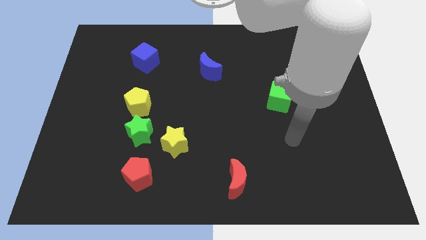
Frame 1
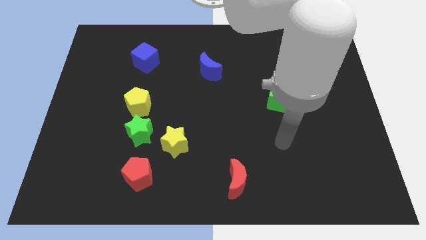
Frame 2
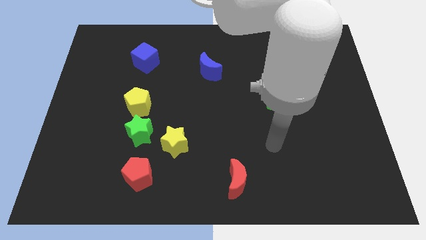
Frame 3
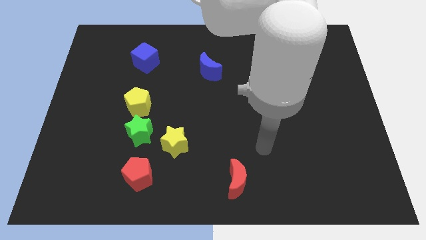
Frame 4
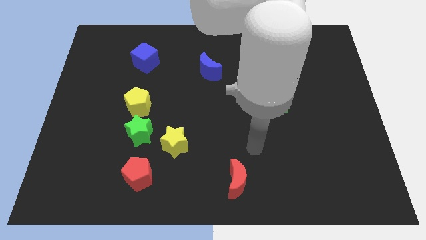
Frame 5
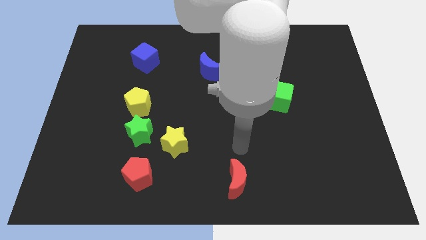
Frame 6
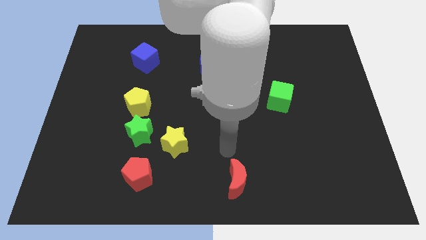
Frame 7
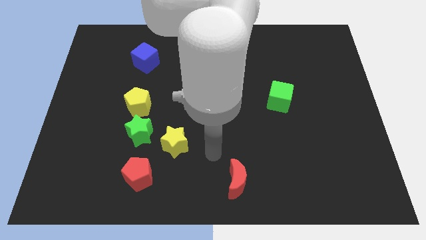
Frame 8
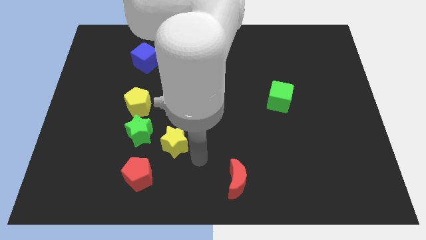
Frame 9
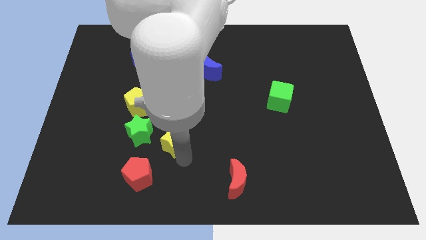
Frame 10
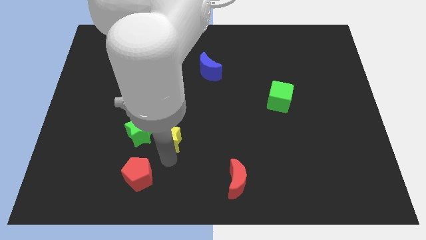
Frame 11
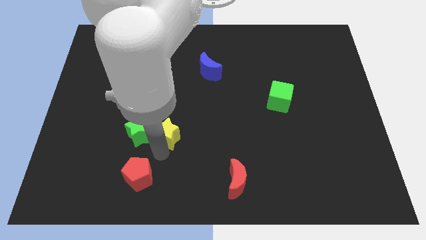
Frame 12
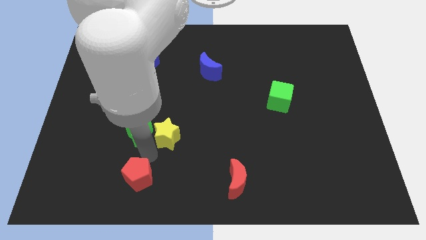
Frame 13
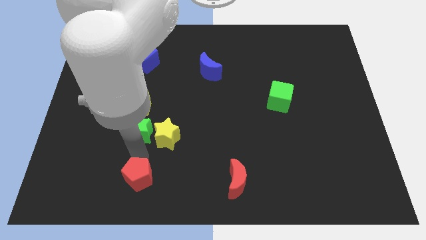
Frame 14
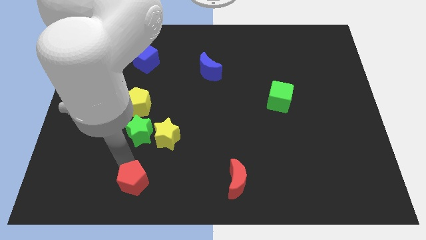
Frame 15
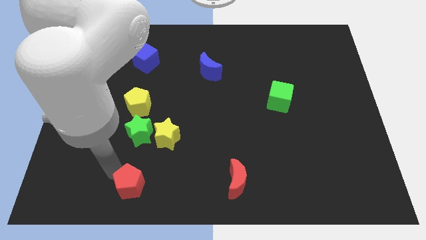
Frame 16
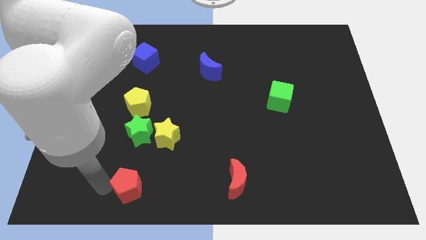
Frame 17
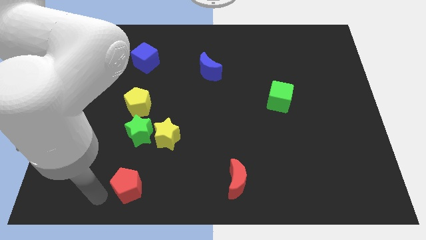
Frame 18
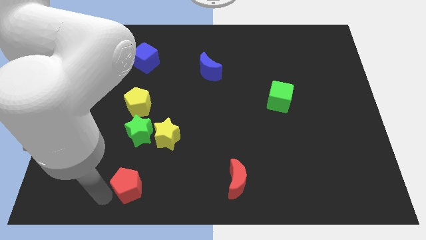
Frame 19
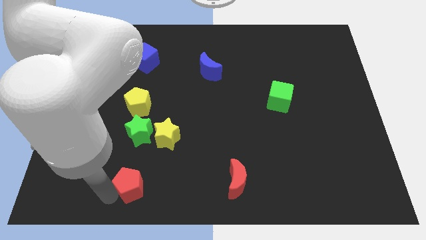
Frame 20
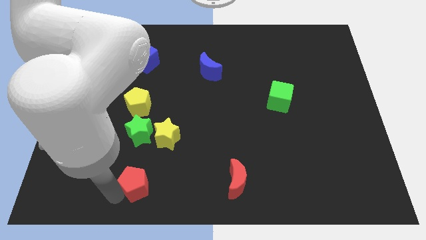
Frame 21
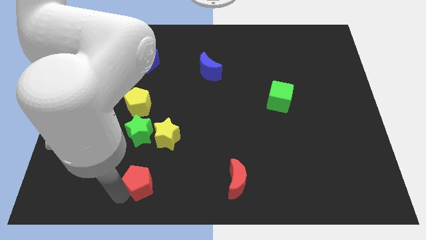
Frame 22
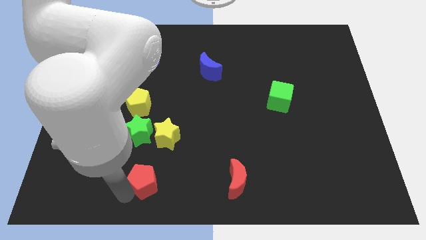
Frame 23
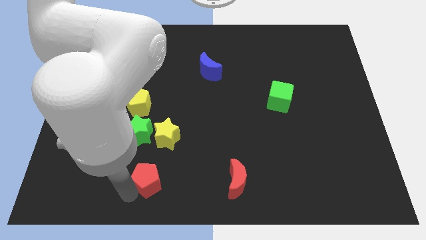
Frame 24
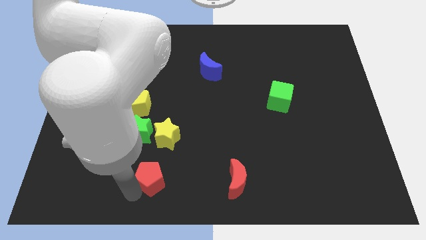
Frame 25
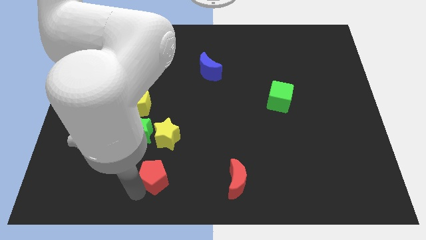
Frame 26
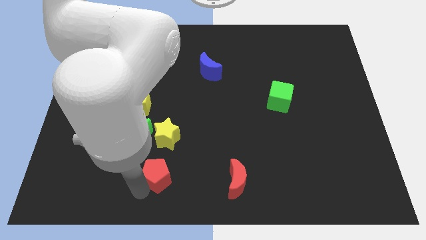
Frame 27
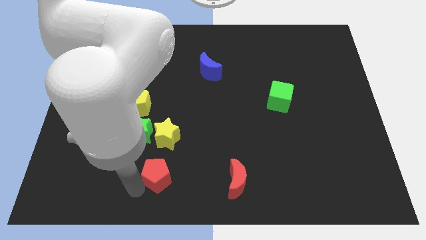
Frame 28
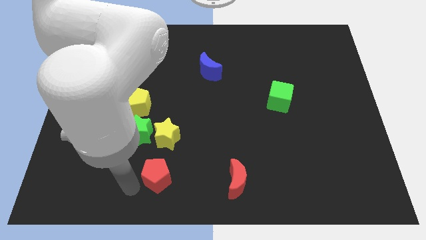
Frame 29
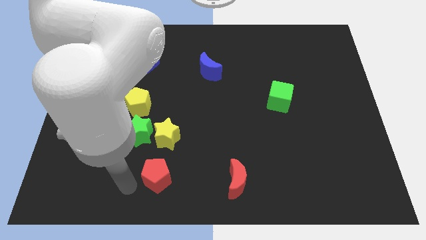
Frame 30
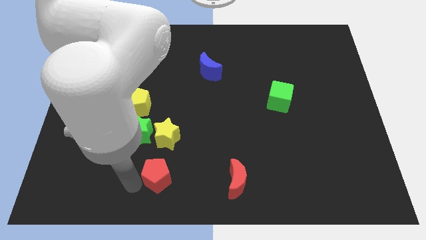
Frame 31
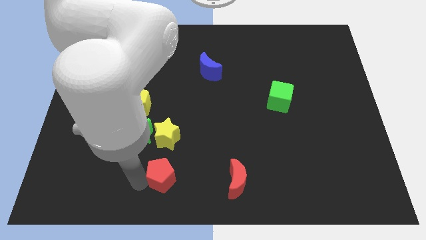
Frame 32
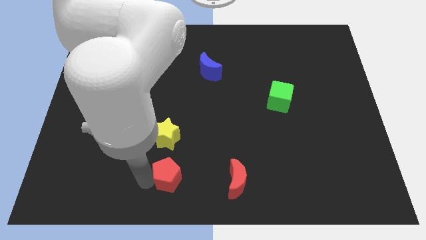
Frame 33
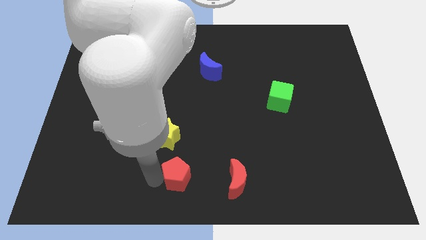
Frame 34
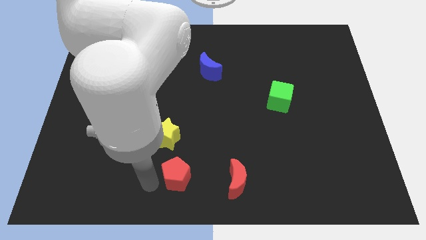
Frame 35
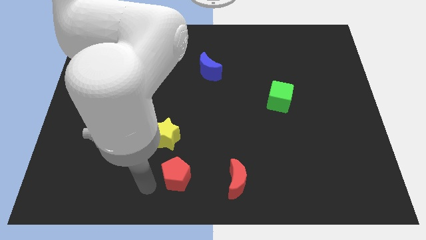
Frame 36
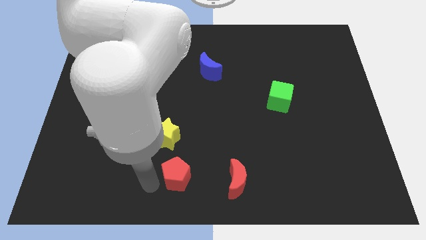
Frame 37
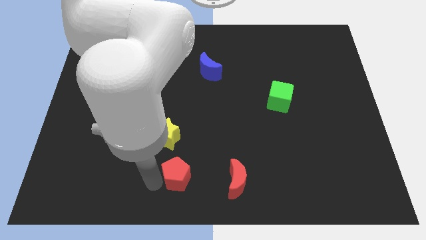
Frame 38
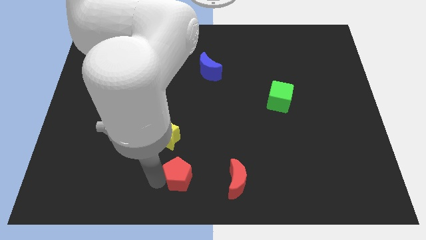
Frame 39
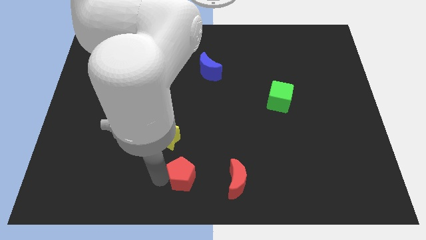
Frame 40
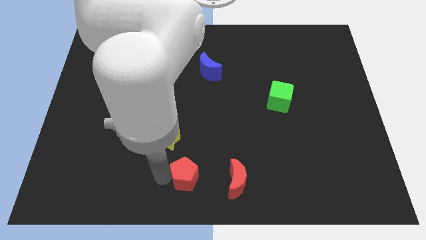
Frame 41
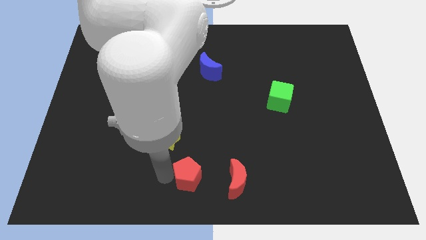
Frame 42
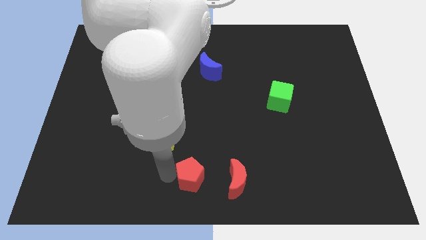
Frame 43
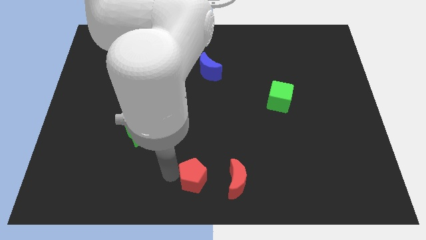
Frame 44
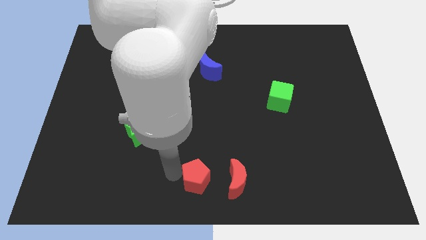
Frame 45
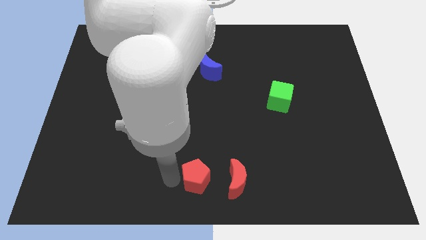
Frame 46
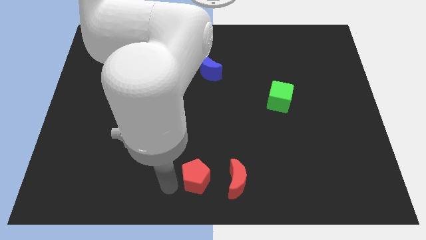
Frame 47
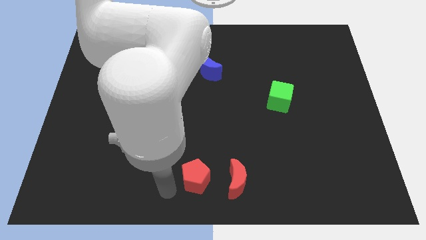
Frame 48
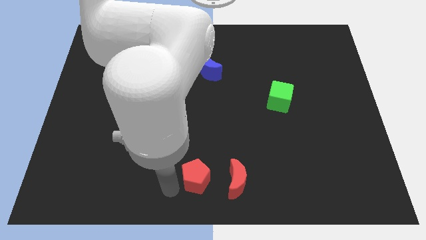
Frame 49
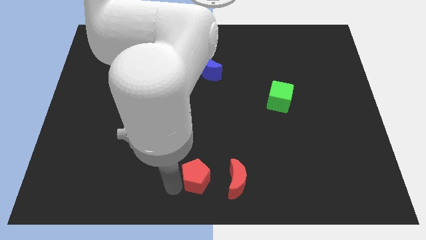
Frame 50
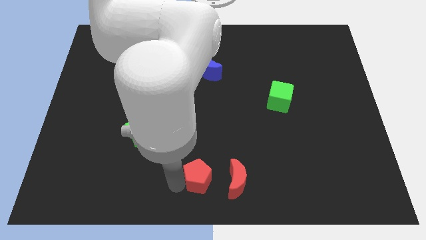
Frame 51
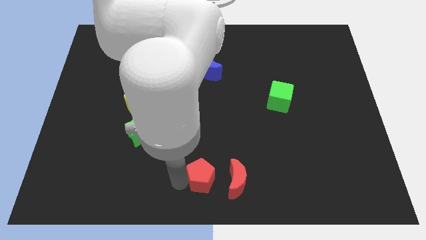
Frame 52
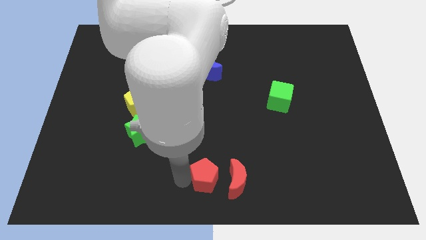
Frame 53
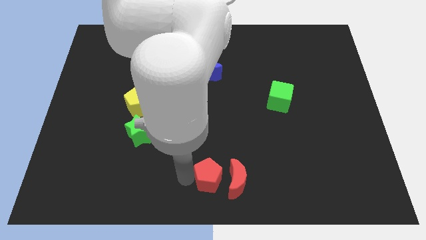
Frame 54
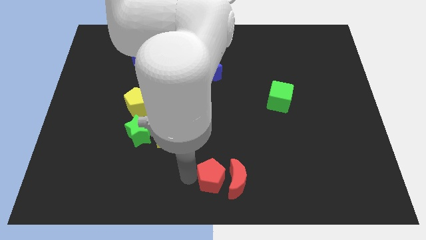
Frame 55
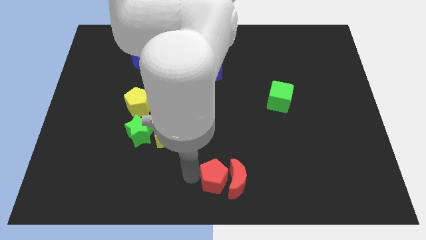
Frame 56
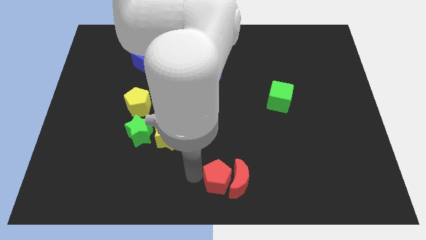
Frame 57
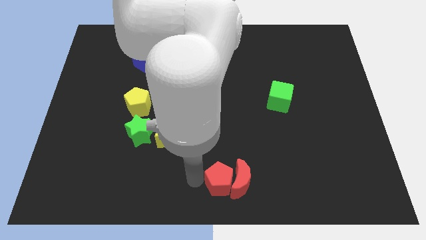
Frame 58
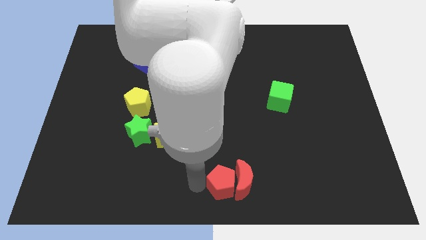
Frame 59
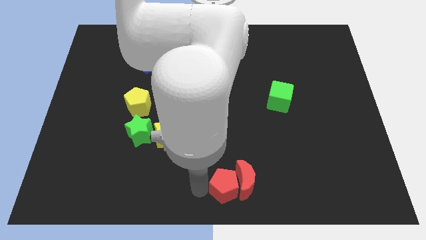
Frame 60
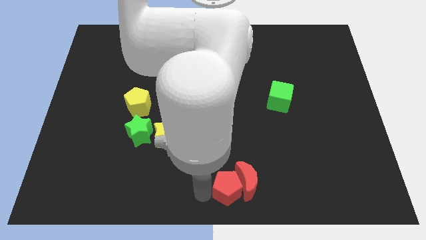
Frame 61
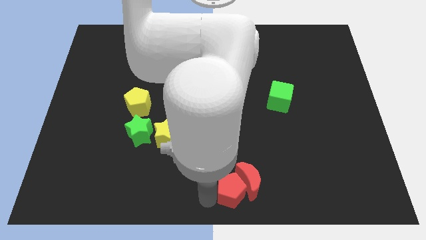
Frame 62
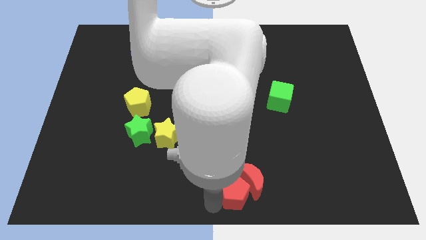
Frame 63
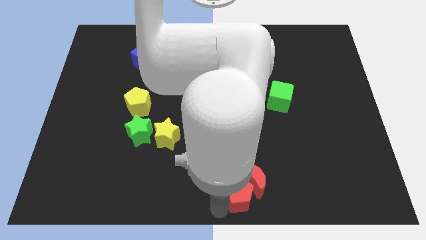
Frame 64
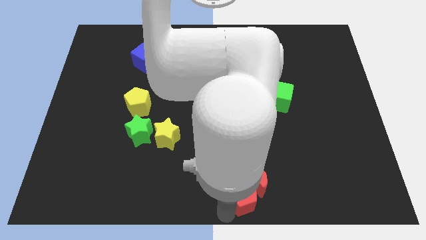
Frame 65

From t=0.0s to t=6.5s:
slide the red pentagon right

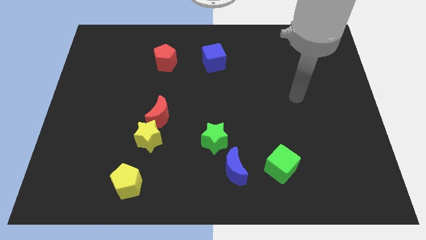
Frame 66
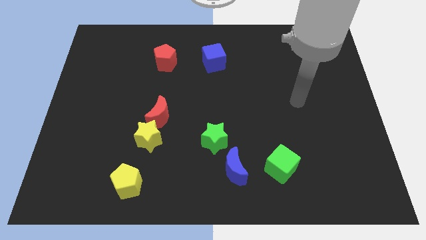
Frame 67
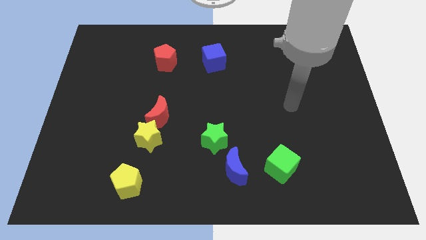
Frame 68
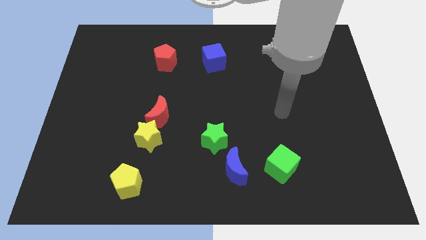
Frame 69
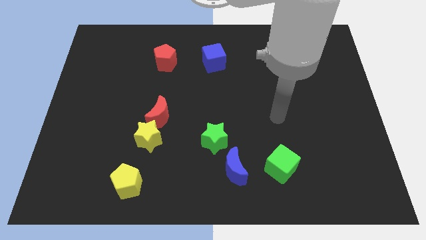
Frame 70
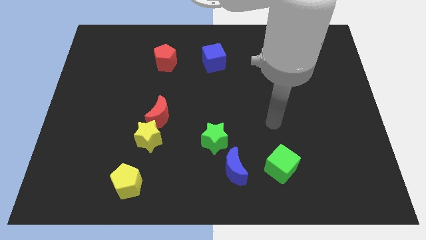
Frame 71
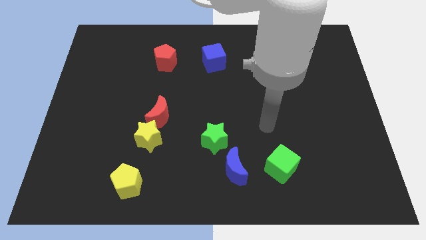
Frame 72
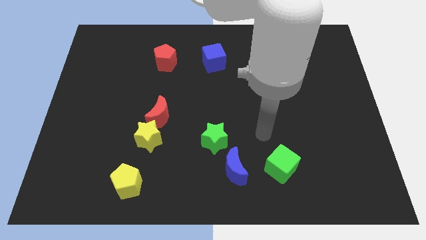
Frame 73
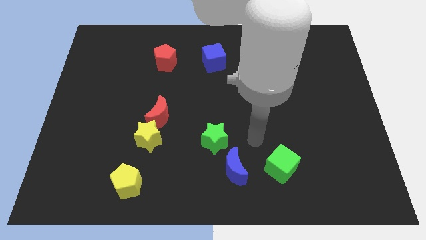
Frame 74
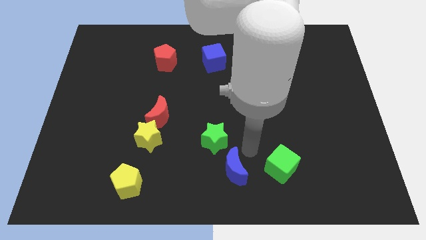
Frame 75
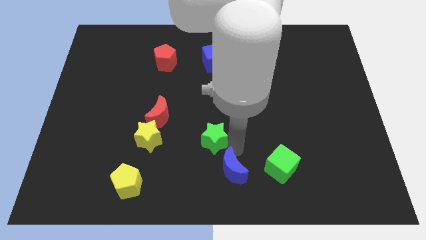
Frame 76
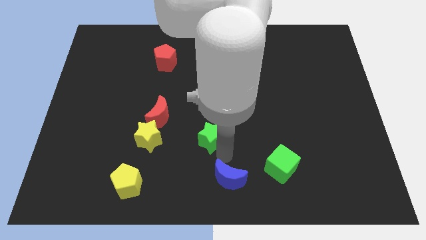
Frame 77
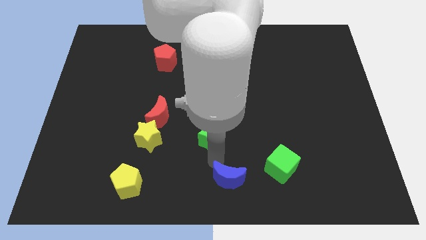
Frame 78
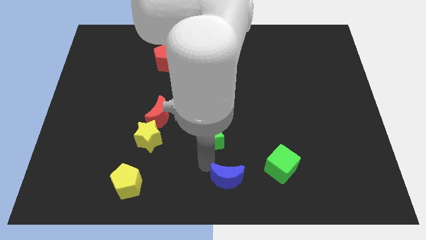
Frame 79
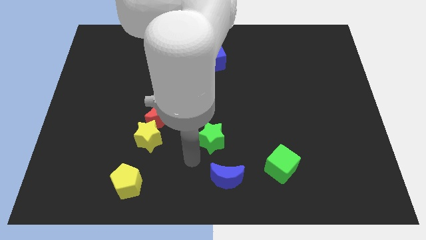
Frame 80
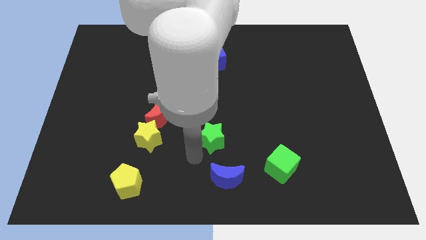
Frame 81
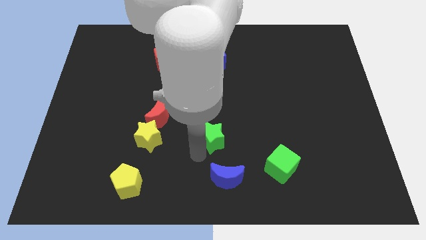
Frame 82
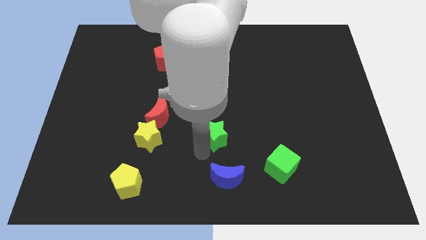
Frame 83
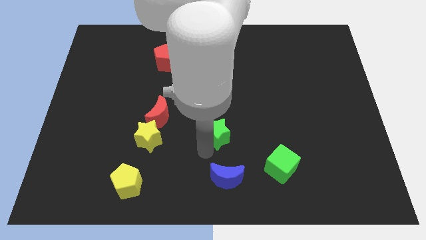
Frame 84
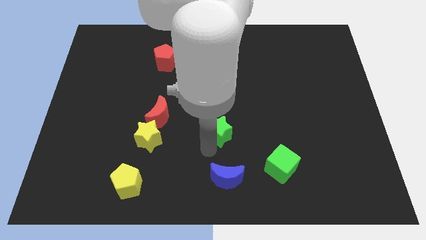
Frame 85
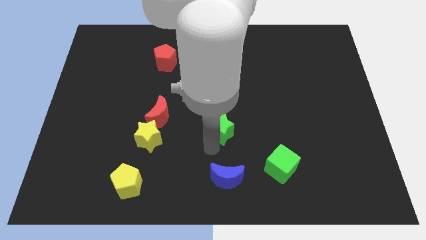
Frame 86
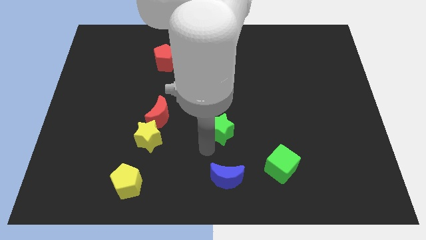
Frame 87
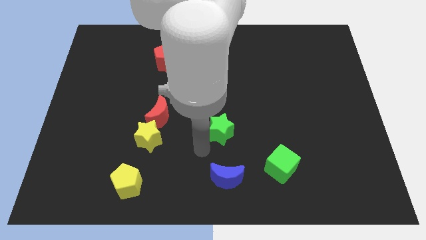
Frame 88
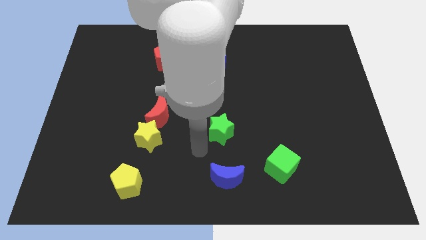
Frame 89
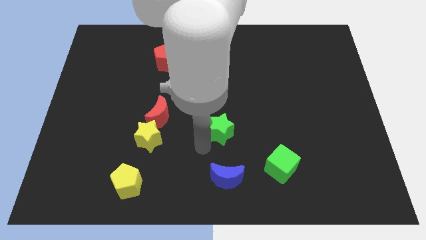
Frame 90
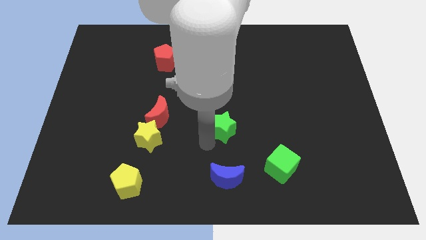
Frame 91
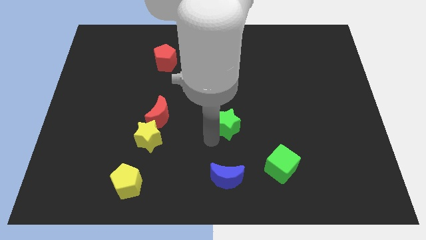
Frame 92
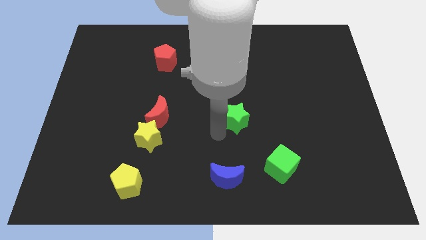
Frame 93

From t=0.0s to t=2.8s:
slide the green star up and to the right diagonally a little bit
